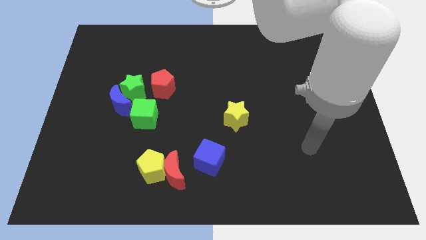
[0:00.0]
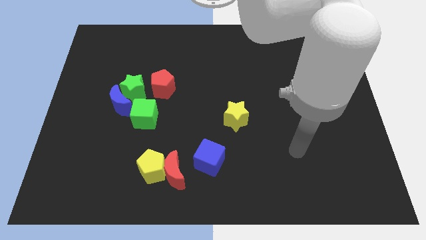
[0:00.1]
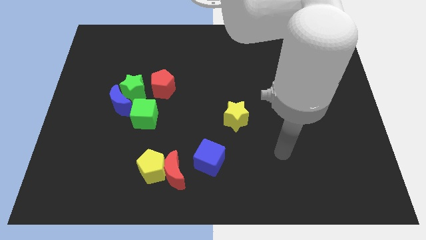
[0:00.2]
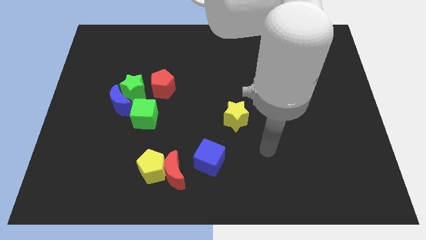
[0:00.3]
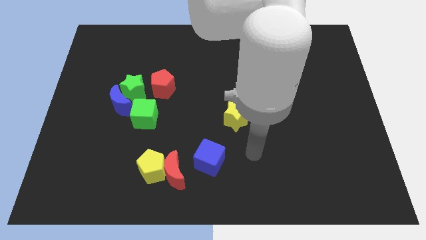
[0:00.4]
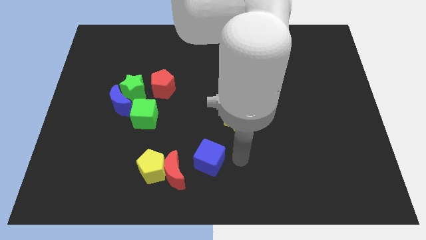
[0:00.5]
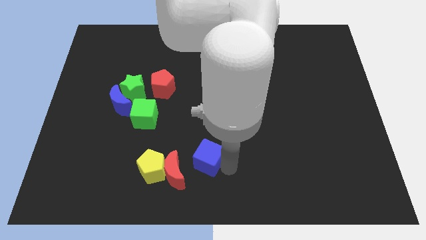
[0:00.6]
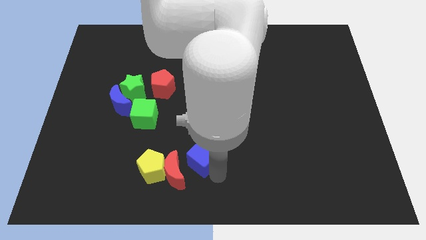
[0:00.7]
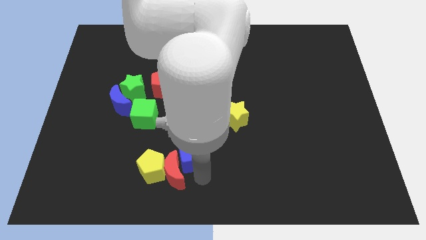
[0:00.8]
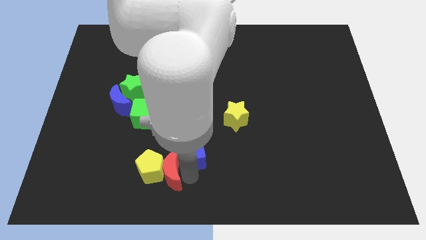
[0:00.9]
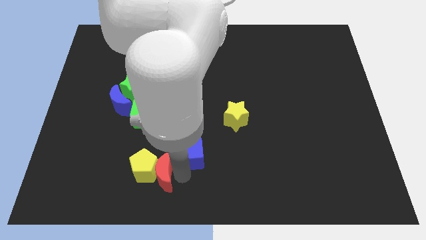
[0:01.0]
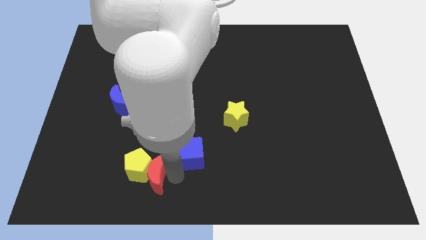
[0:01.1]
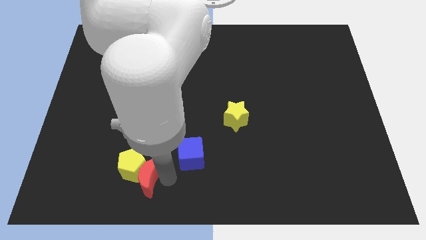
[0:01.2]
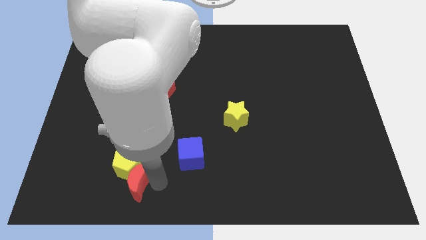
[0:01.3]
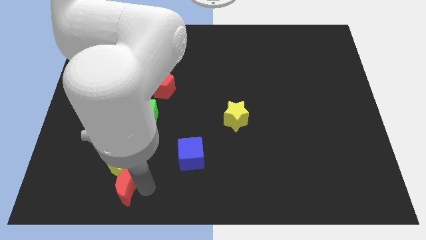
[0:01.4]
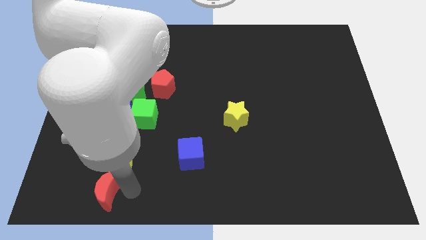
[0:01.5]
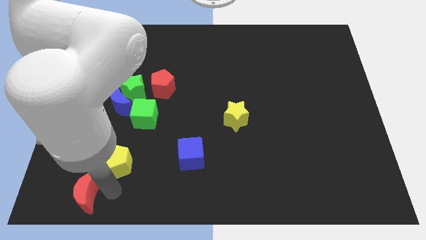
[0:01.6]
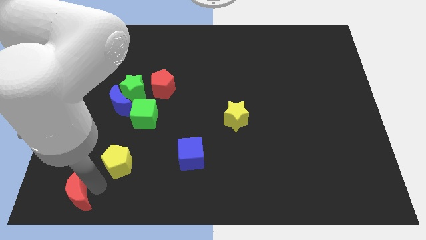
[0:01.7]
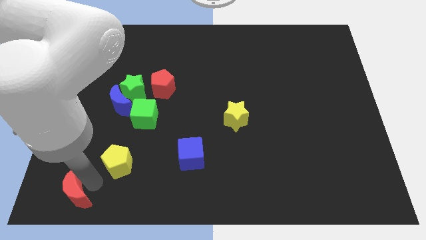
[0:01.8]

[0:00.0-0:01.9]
pull the yellow pentagon apart from the red moon

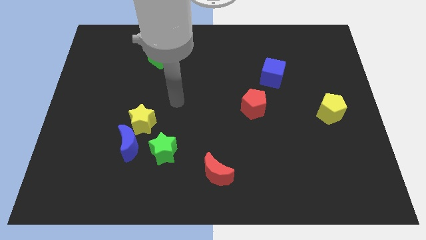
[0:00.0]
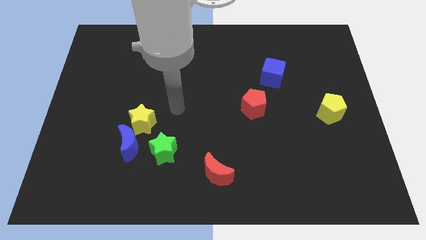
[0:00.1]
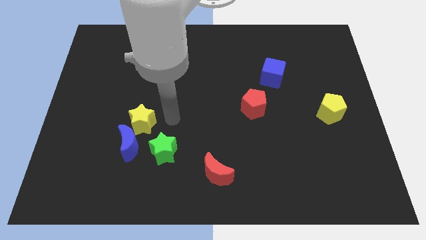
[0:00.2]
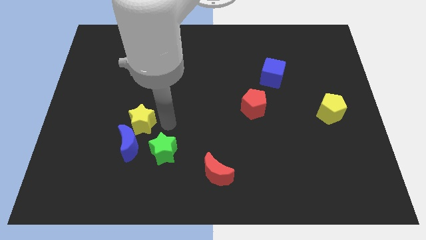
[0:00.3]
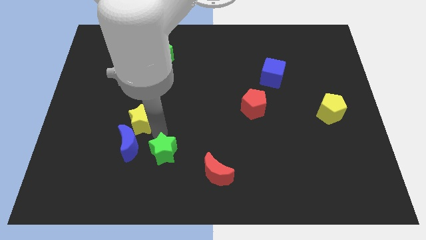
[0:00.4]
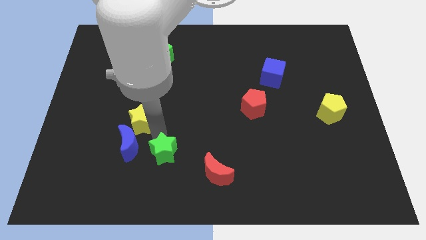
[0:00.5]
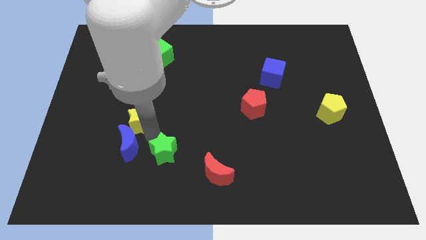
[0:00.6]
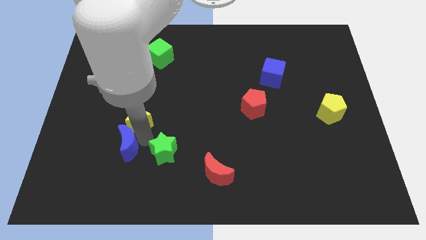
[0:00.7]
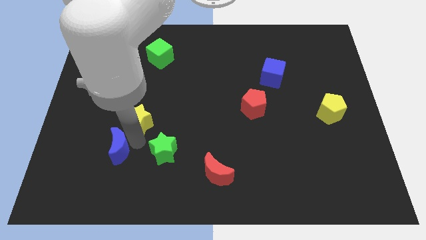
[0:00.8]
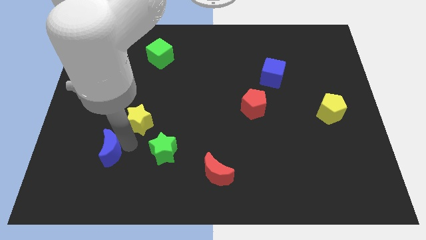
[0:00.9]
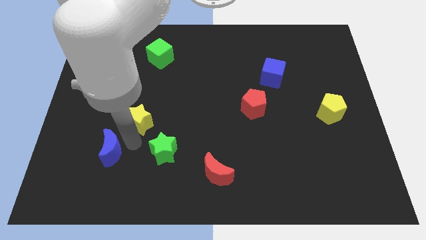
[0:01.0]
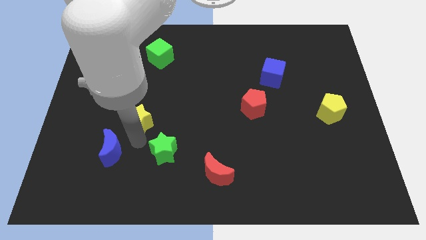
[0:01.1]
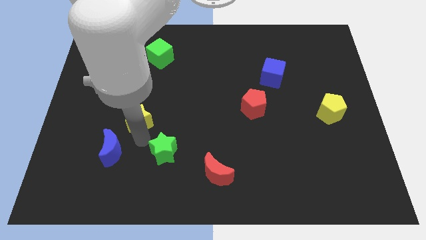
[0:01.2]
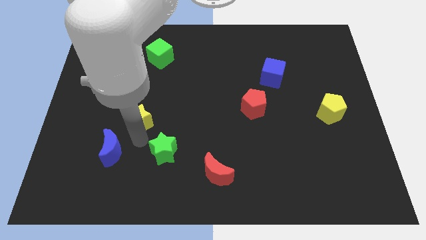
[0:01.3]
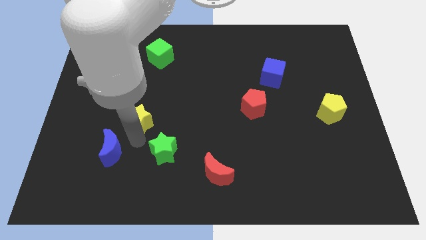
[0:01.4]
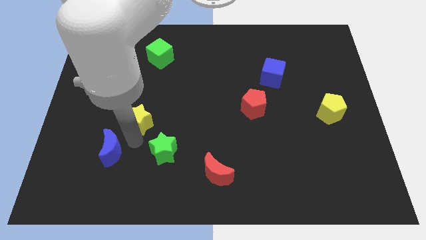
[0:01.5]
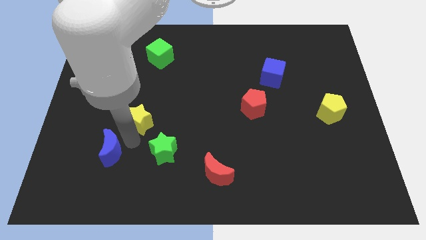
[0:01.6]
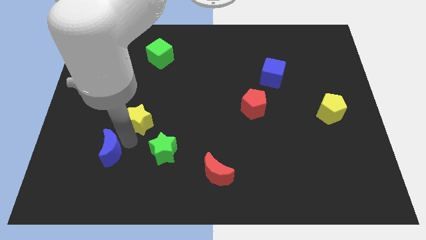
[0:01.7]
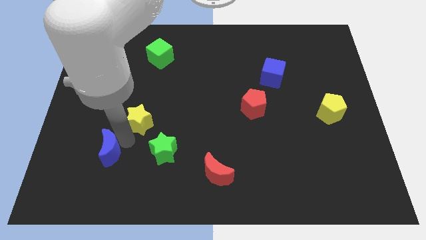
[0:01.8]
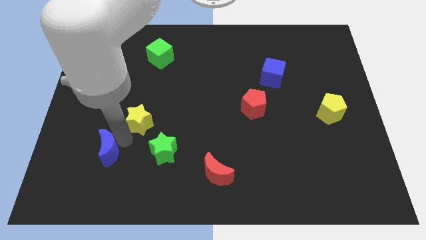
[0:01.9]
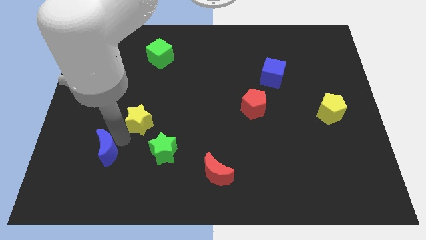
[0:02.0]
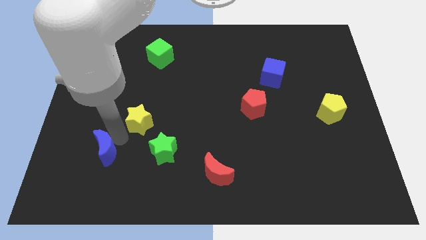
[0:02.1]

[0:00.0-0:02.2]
pull the blue moon apart from the yellow star and green star

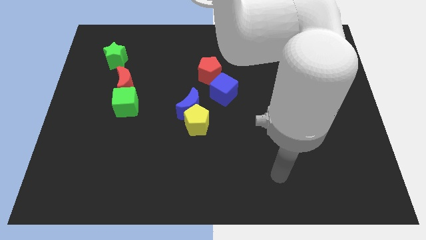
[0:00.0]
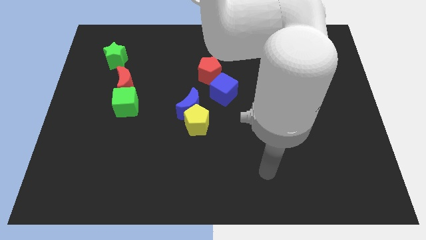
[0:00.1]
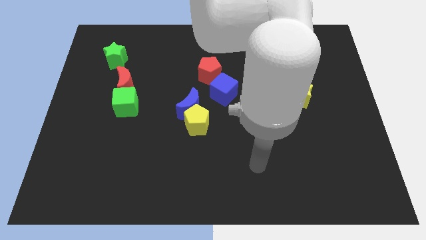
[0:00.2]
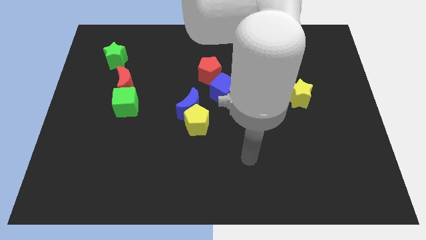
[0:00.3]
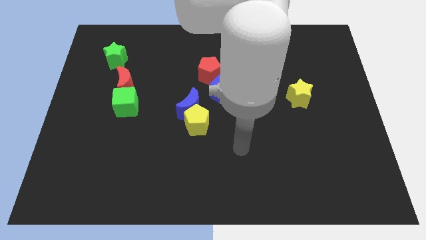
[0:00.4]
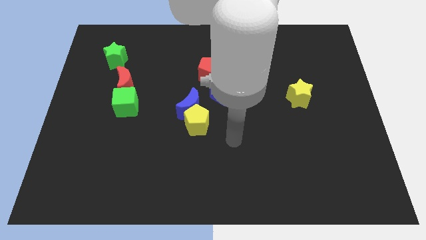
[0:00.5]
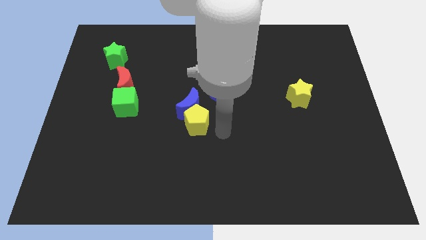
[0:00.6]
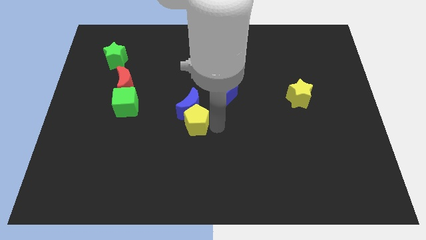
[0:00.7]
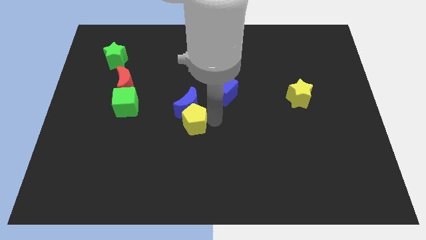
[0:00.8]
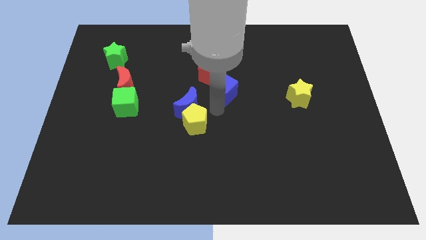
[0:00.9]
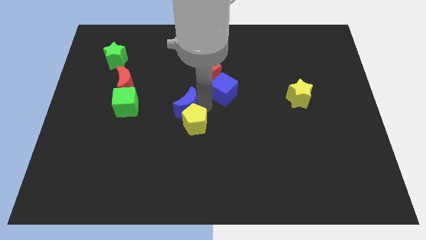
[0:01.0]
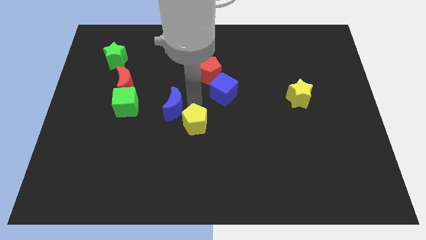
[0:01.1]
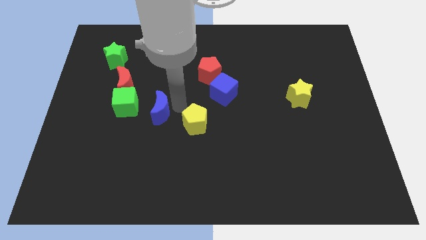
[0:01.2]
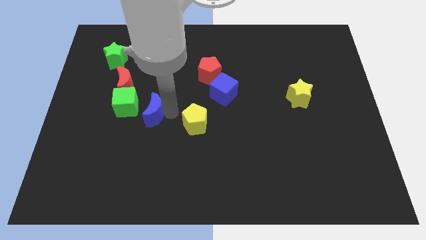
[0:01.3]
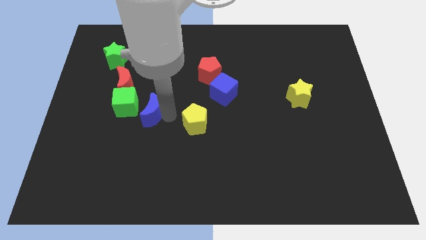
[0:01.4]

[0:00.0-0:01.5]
separate the yellow pentagon from the blue moon

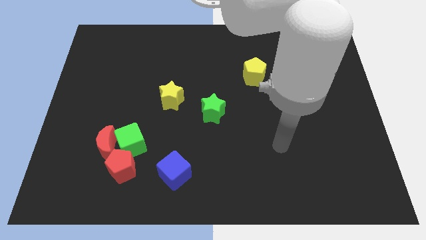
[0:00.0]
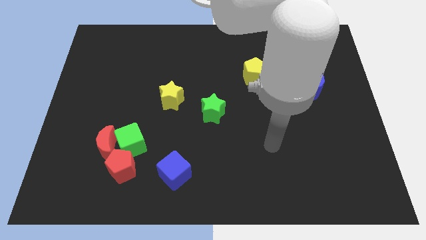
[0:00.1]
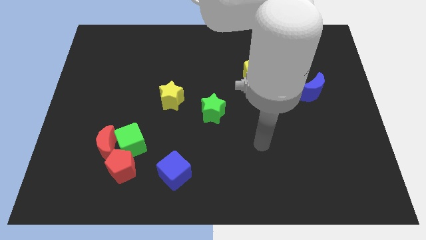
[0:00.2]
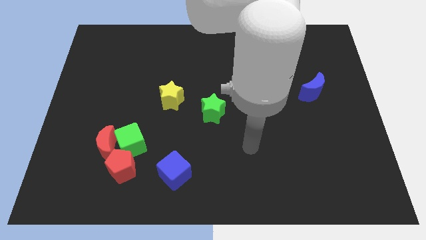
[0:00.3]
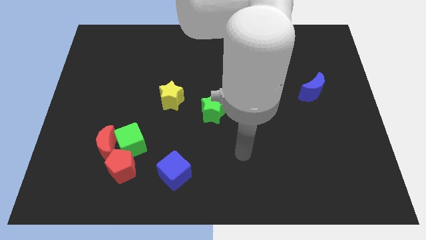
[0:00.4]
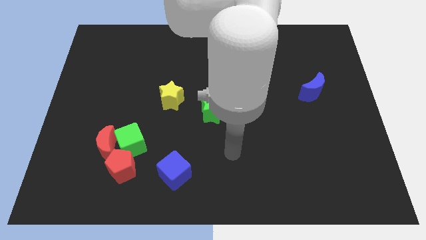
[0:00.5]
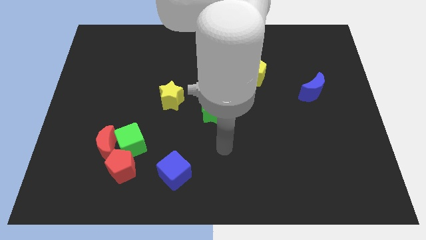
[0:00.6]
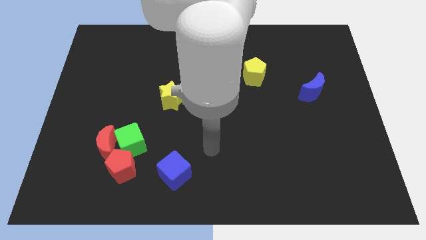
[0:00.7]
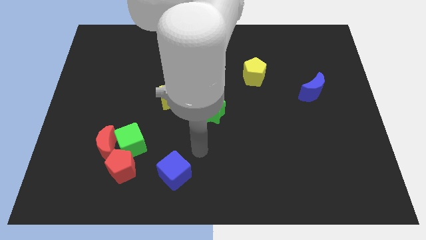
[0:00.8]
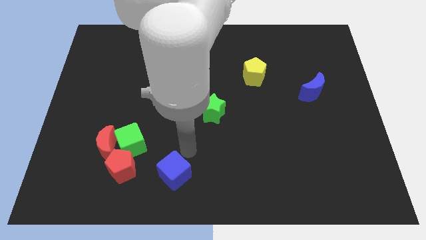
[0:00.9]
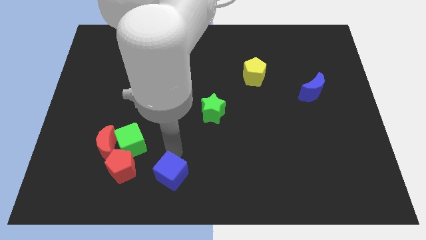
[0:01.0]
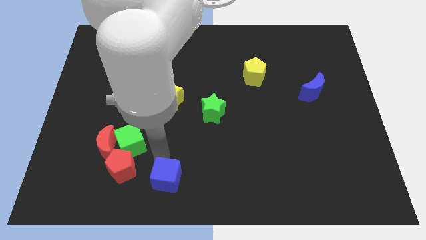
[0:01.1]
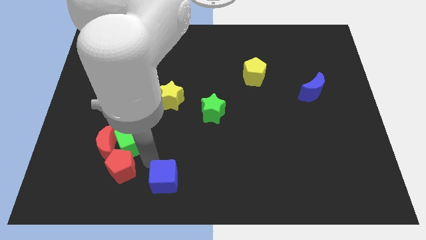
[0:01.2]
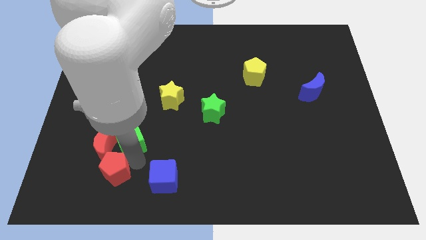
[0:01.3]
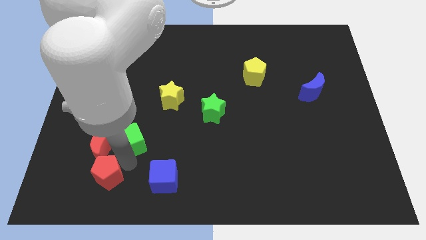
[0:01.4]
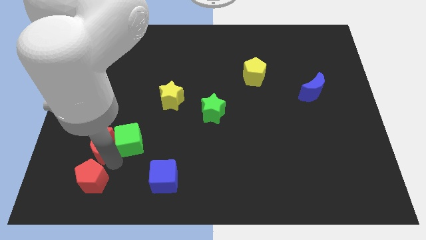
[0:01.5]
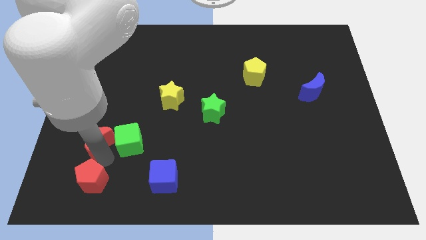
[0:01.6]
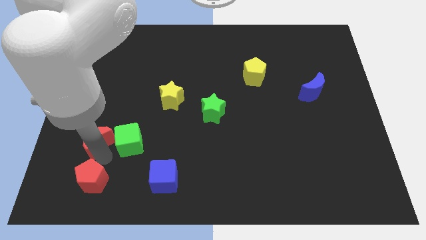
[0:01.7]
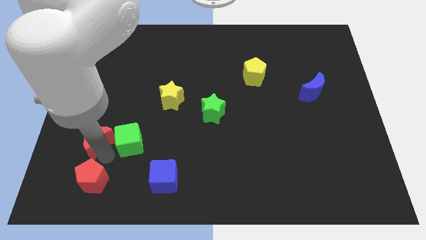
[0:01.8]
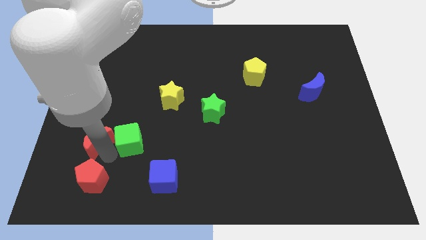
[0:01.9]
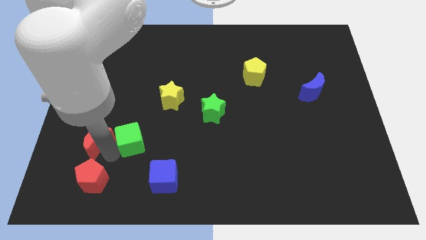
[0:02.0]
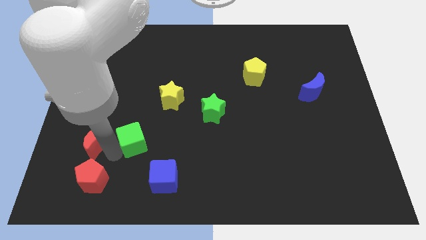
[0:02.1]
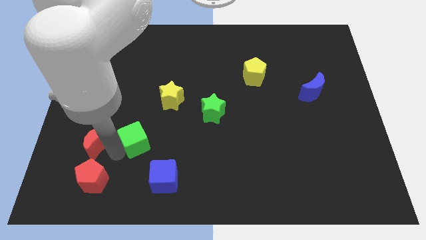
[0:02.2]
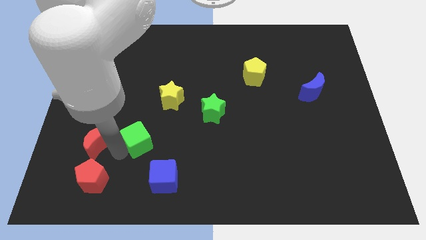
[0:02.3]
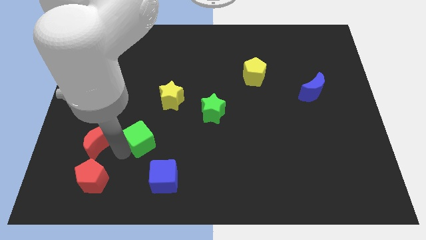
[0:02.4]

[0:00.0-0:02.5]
pull the green cube apart from the red moon and red pentagon

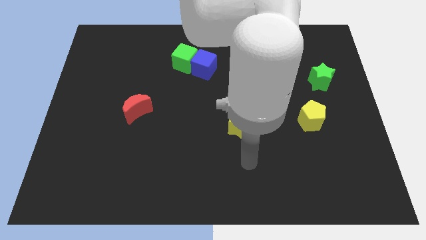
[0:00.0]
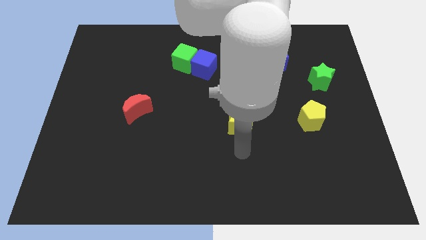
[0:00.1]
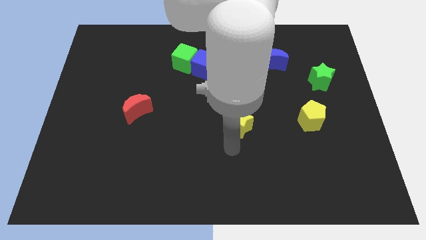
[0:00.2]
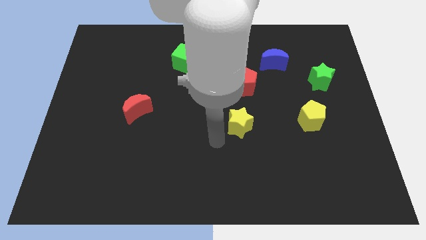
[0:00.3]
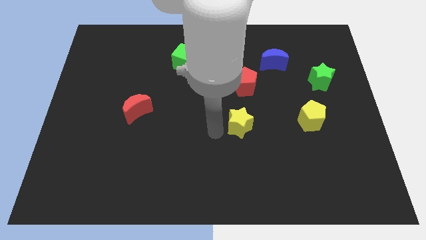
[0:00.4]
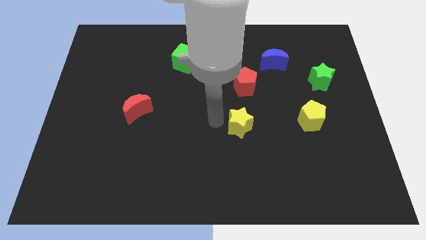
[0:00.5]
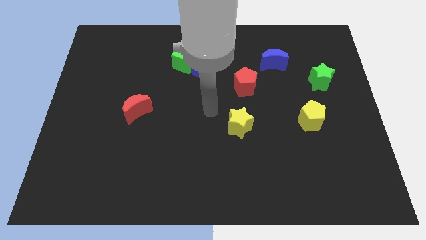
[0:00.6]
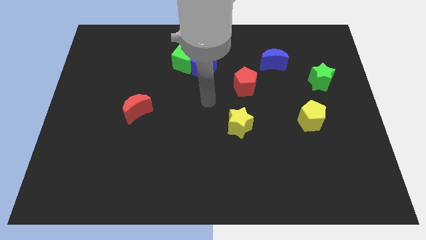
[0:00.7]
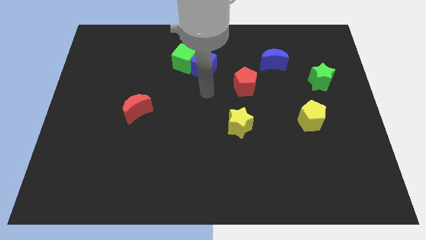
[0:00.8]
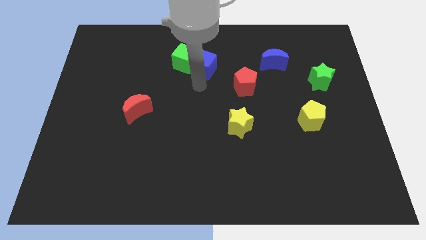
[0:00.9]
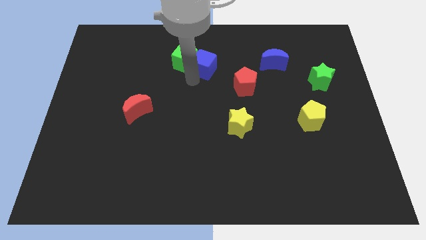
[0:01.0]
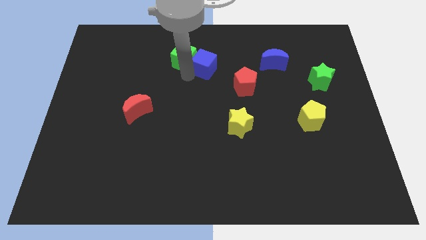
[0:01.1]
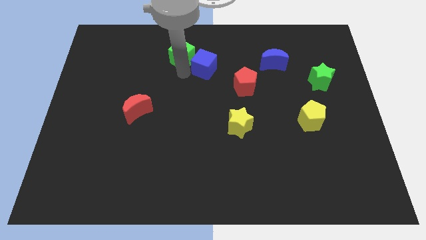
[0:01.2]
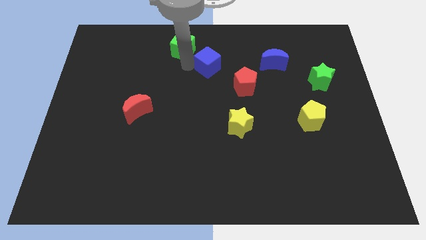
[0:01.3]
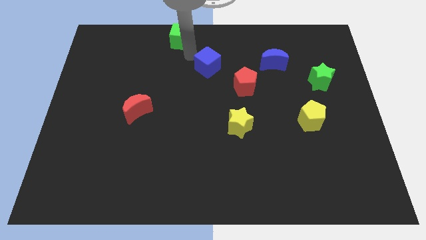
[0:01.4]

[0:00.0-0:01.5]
pull the blue cube apart from the green cube
